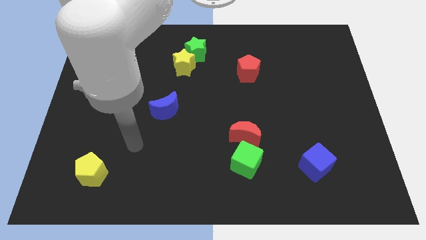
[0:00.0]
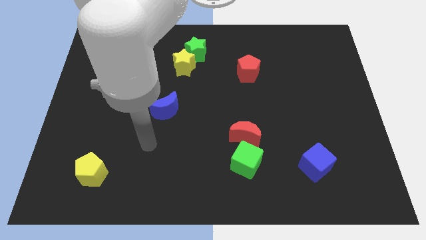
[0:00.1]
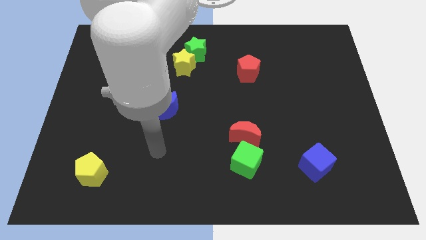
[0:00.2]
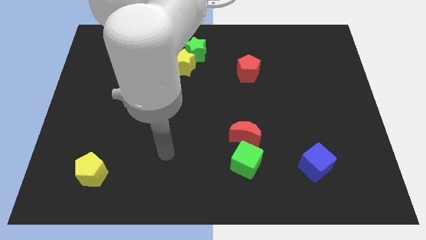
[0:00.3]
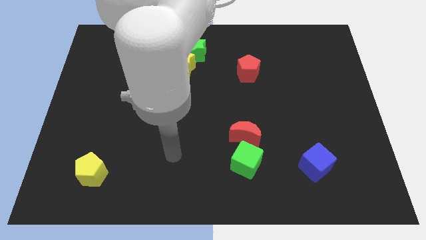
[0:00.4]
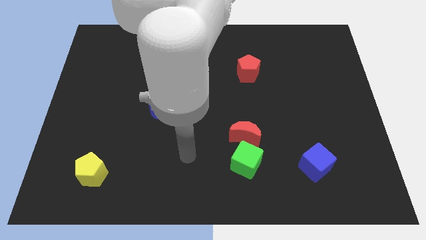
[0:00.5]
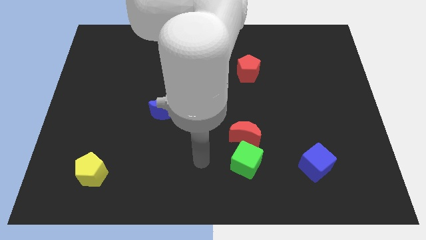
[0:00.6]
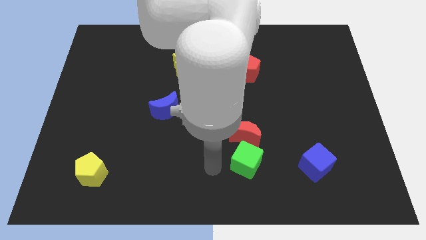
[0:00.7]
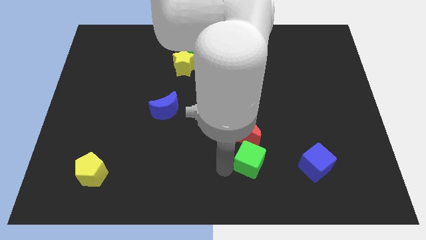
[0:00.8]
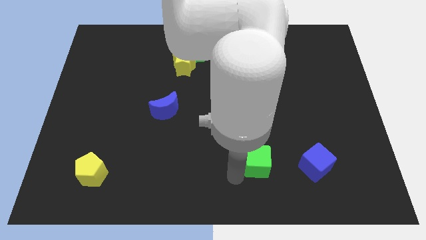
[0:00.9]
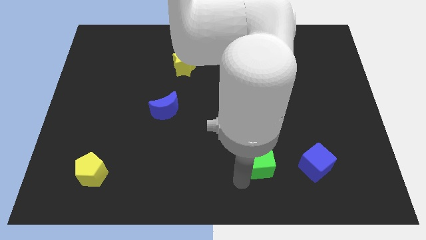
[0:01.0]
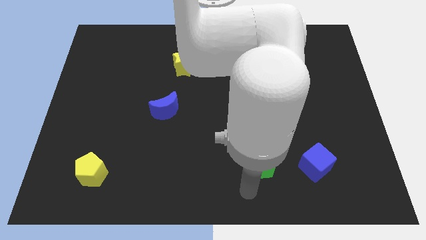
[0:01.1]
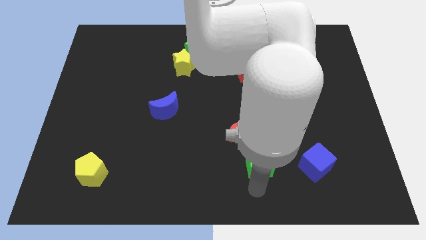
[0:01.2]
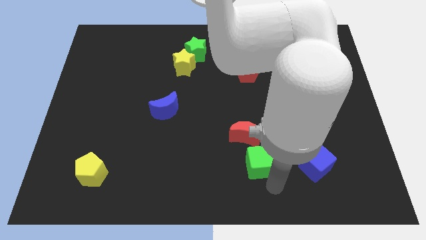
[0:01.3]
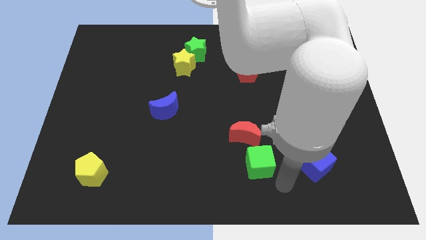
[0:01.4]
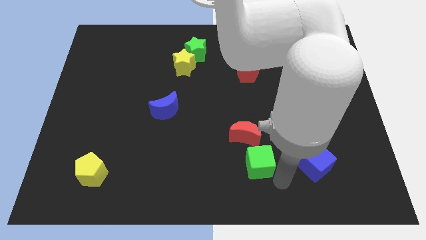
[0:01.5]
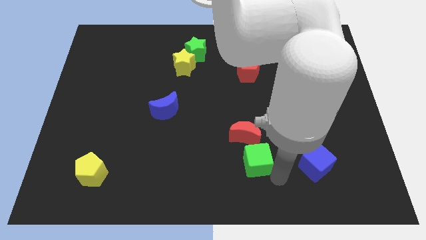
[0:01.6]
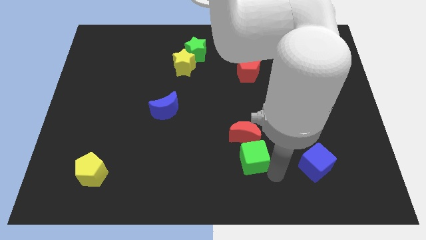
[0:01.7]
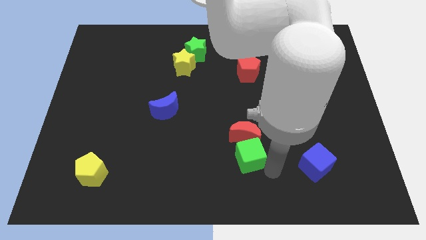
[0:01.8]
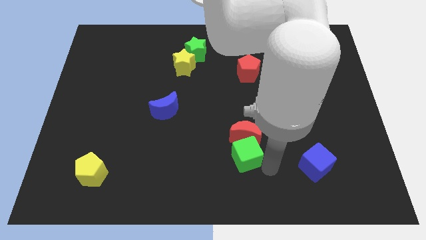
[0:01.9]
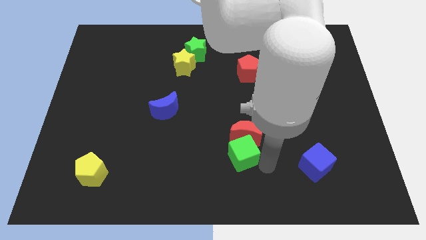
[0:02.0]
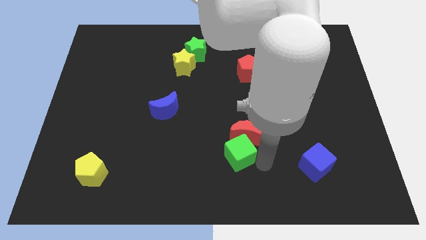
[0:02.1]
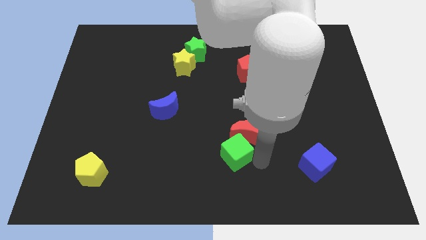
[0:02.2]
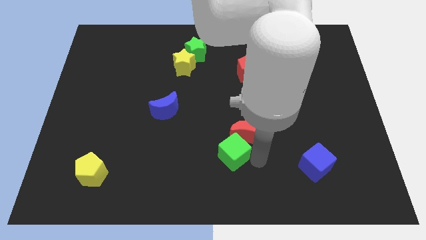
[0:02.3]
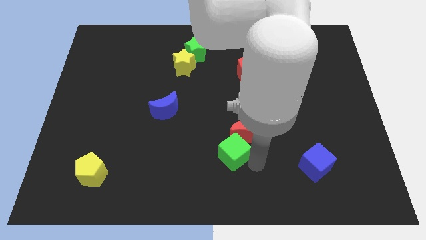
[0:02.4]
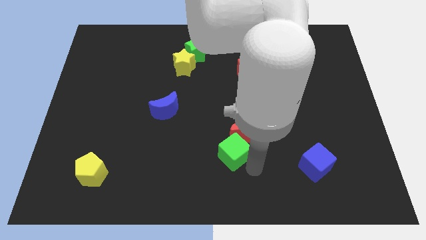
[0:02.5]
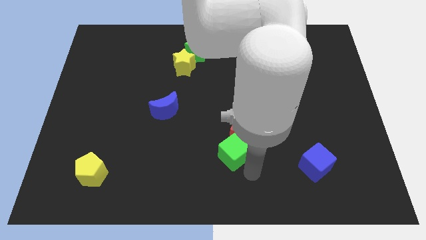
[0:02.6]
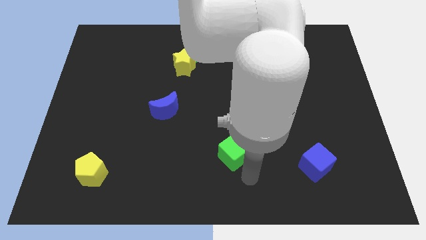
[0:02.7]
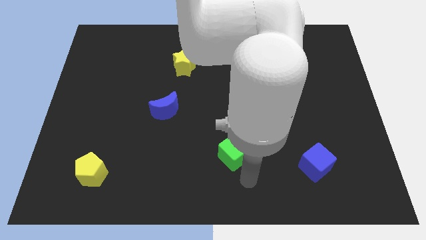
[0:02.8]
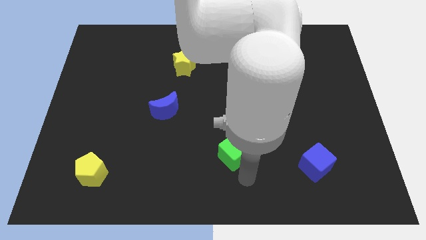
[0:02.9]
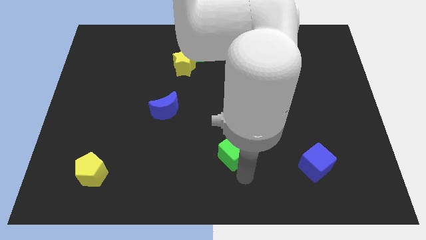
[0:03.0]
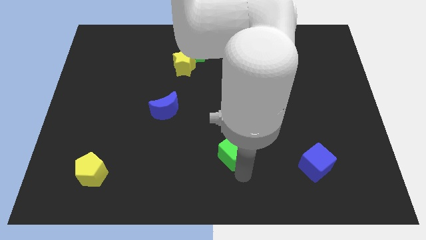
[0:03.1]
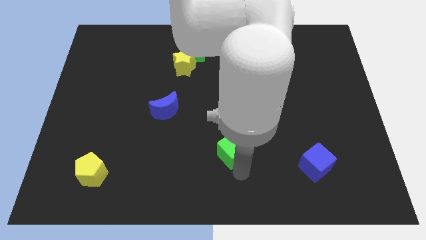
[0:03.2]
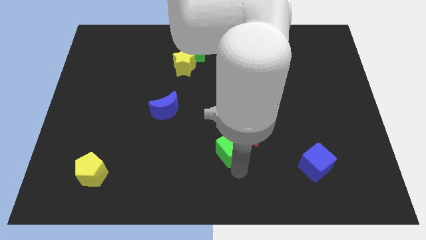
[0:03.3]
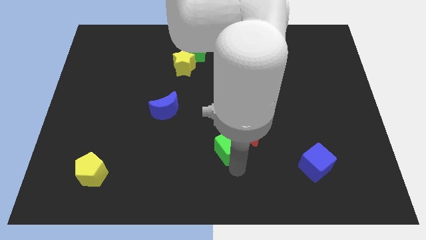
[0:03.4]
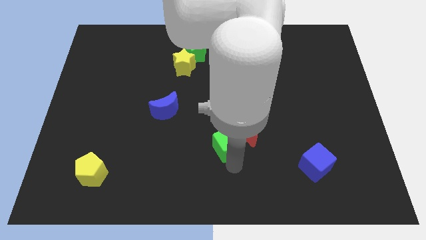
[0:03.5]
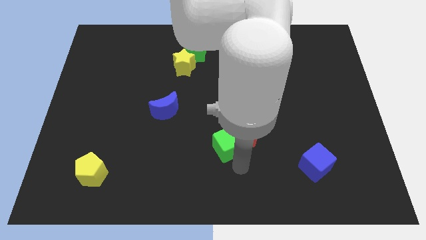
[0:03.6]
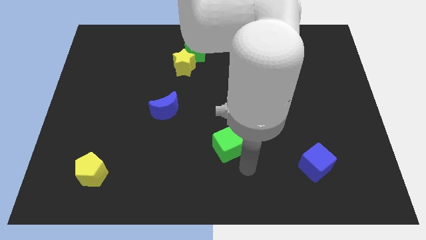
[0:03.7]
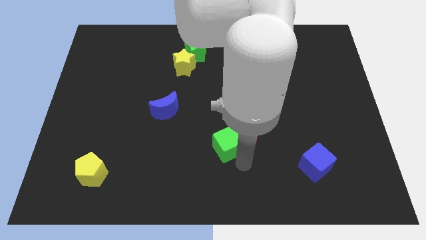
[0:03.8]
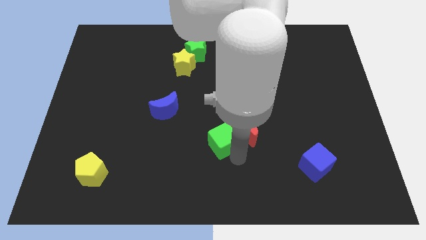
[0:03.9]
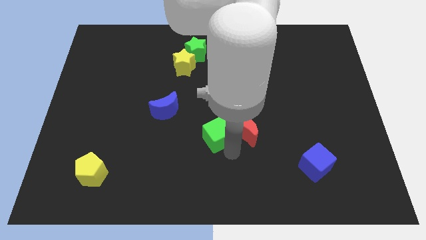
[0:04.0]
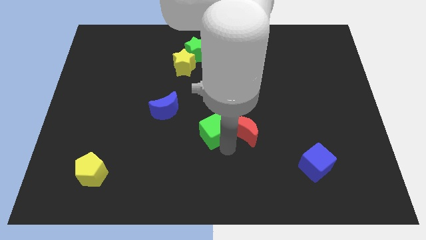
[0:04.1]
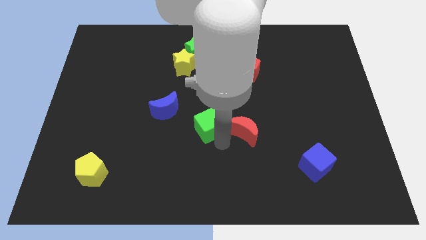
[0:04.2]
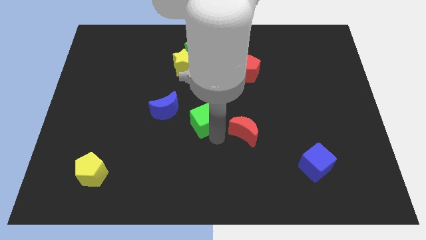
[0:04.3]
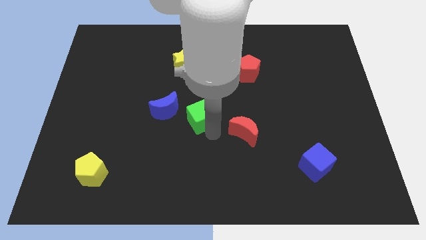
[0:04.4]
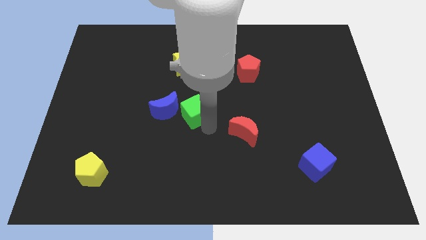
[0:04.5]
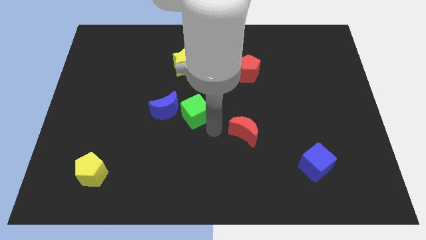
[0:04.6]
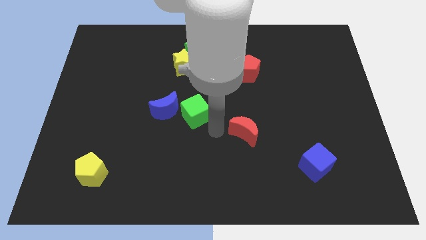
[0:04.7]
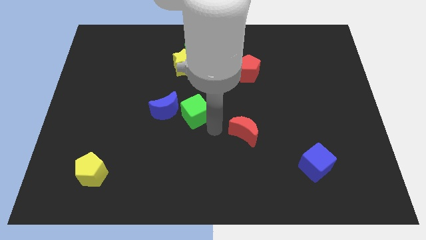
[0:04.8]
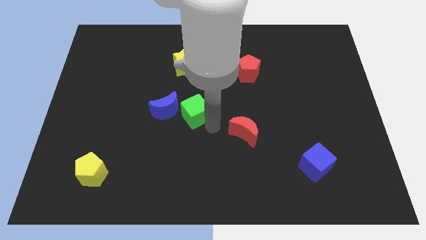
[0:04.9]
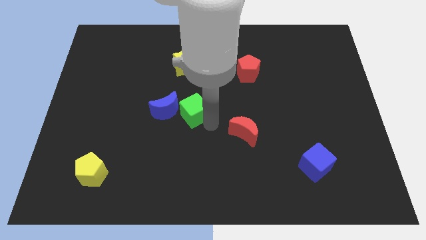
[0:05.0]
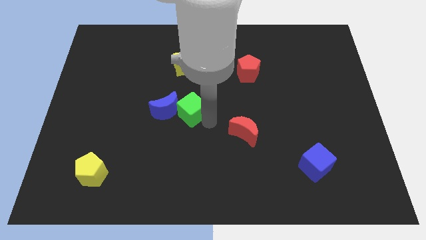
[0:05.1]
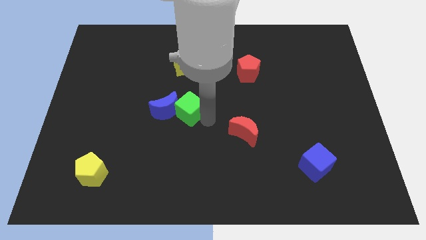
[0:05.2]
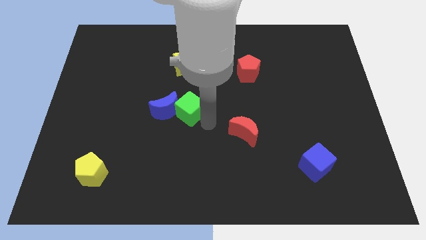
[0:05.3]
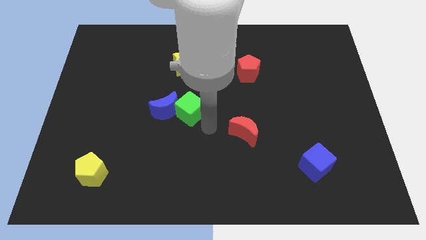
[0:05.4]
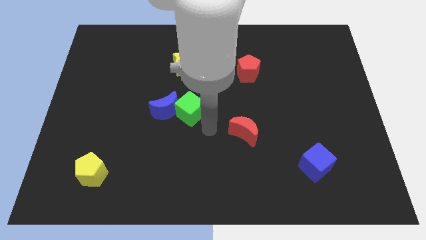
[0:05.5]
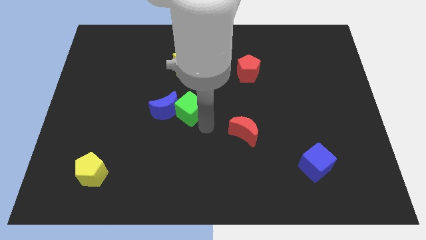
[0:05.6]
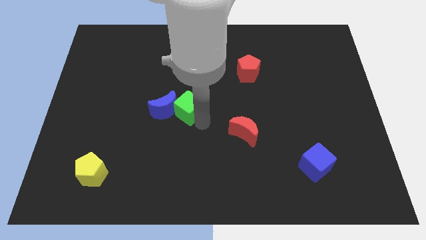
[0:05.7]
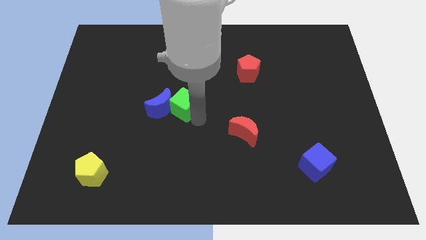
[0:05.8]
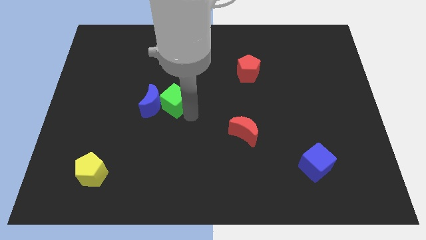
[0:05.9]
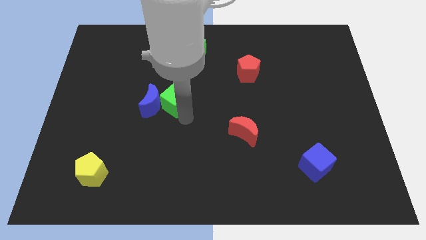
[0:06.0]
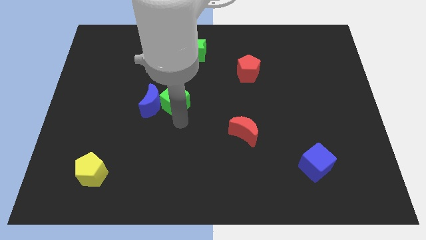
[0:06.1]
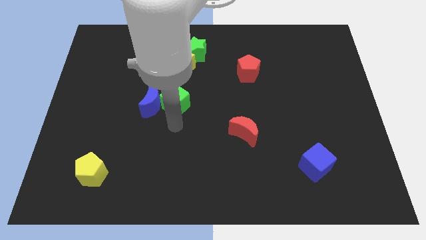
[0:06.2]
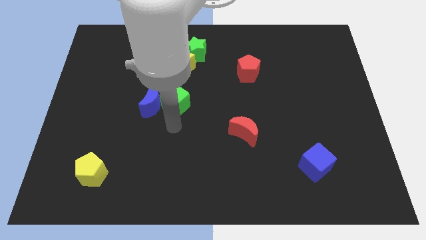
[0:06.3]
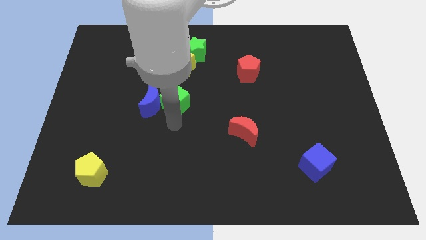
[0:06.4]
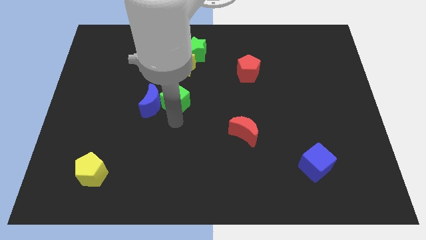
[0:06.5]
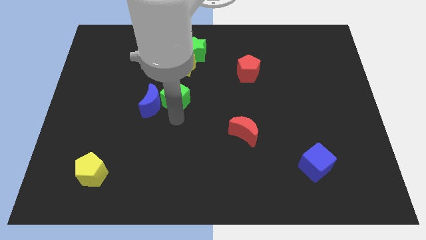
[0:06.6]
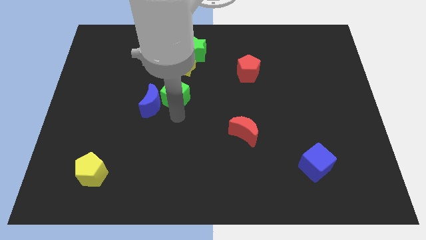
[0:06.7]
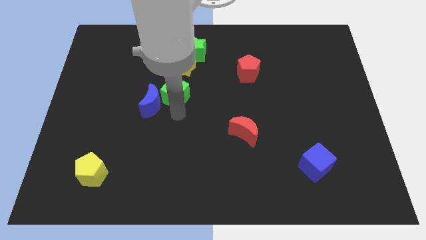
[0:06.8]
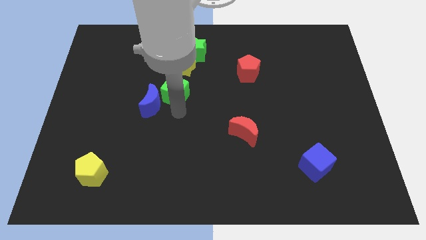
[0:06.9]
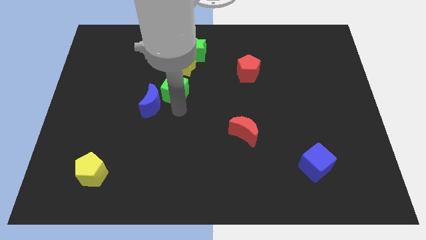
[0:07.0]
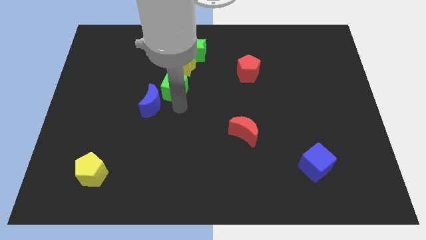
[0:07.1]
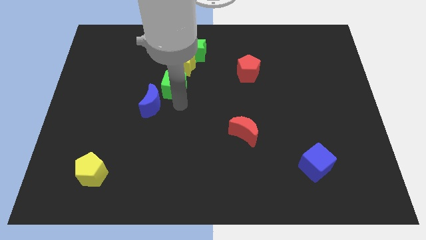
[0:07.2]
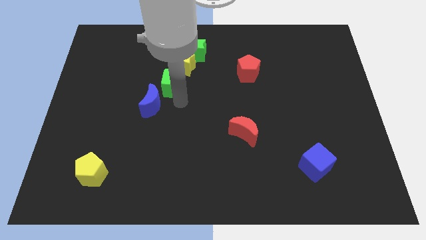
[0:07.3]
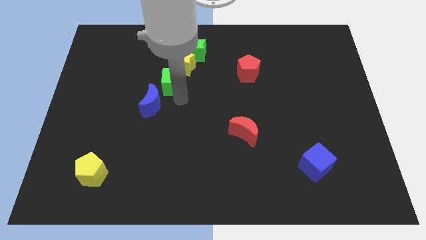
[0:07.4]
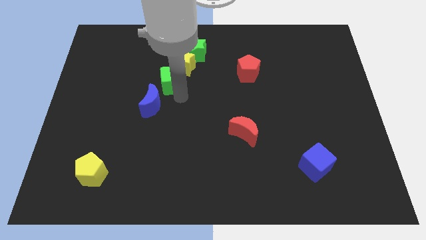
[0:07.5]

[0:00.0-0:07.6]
slide the green cube diagonally down and to the left of the green star

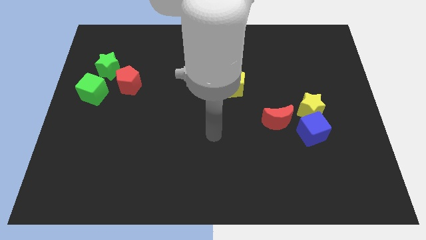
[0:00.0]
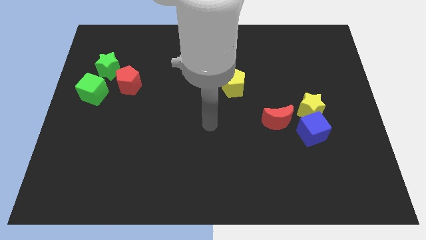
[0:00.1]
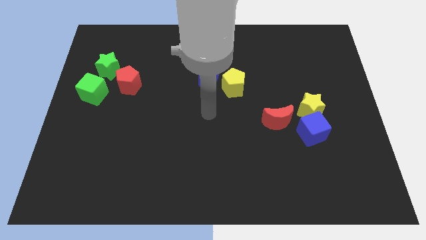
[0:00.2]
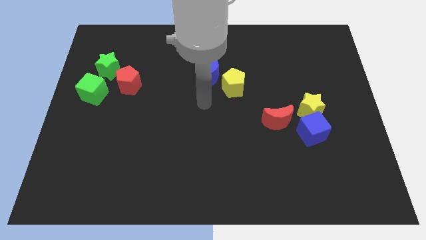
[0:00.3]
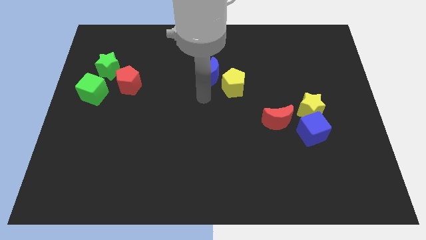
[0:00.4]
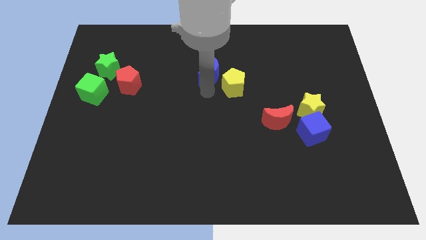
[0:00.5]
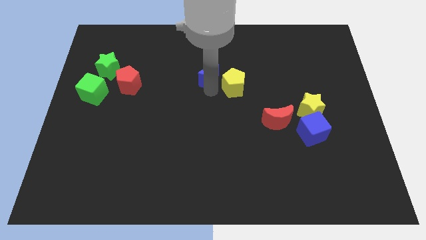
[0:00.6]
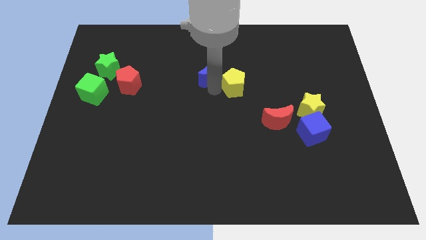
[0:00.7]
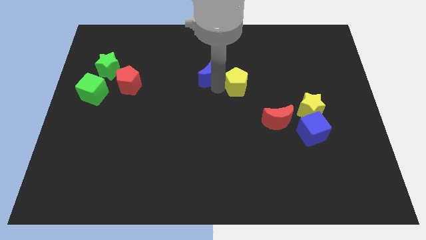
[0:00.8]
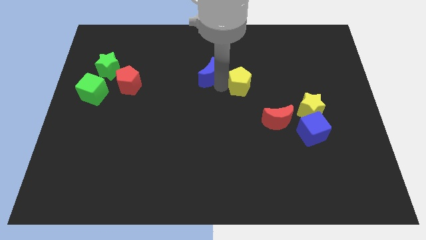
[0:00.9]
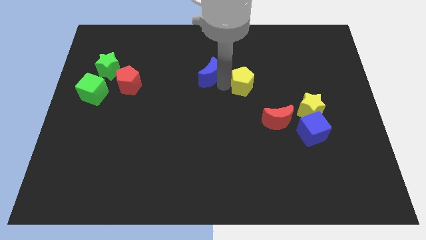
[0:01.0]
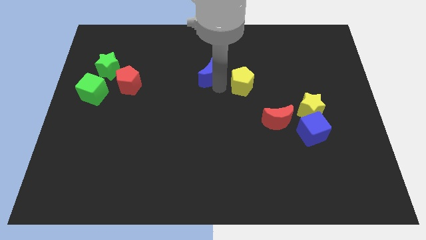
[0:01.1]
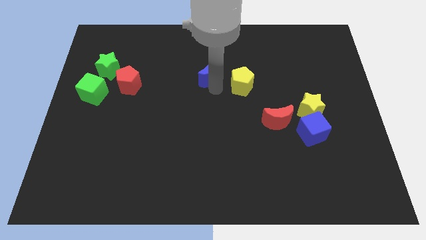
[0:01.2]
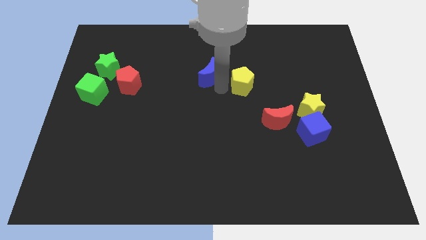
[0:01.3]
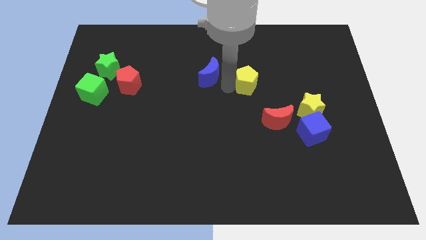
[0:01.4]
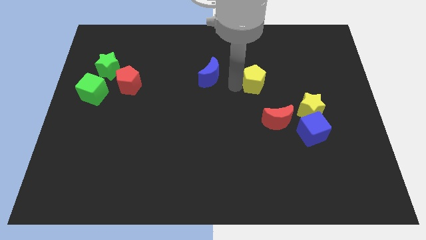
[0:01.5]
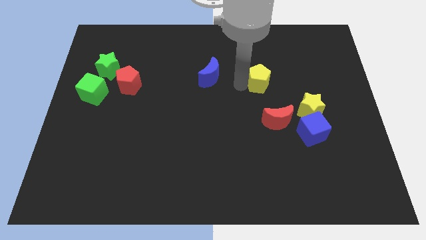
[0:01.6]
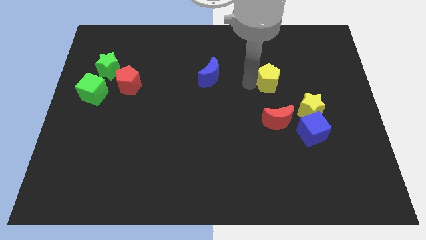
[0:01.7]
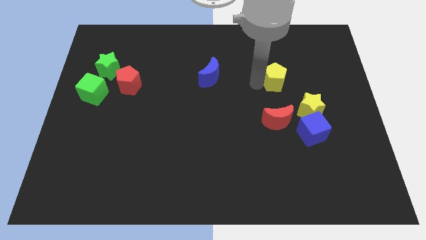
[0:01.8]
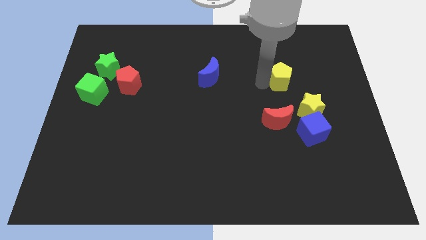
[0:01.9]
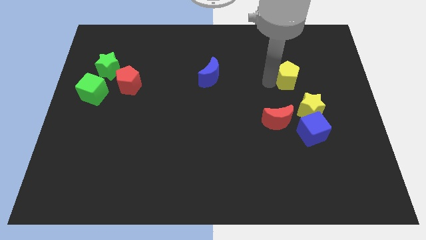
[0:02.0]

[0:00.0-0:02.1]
push the yellow pentagon above the yellow star
